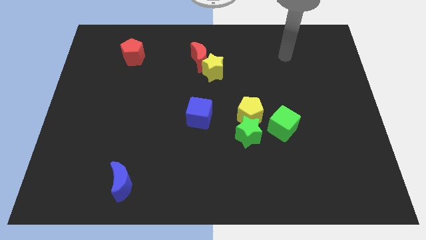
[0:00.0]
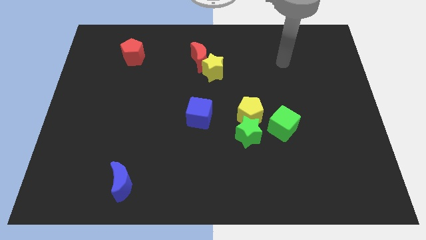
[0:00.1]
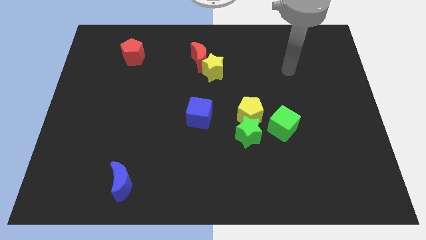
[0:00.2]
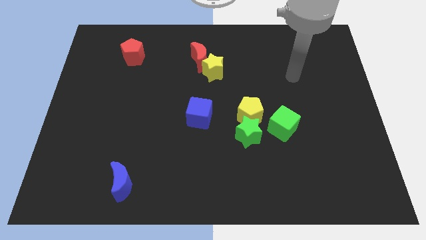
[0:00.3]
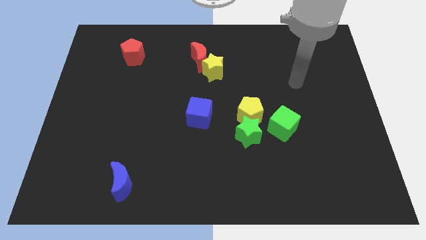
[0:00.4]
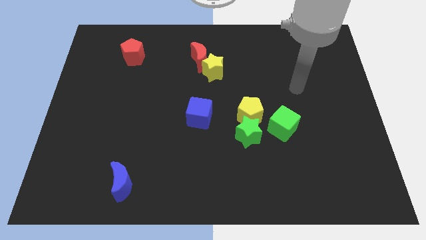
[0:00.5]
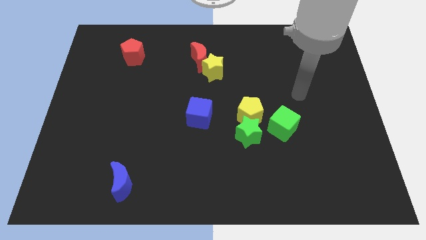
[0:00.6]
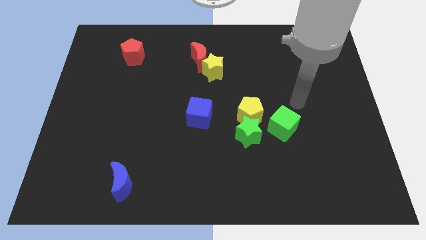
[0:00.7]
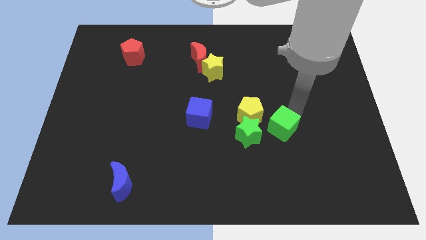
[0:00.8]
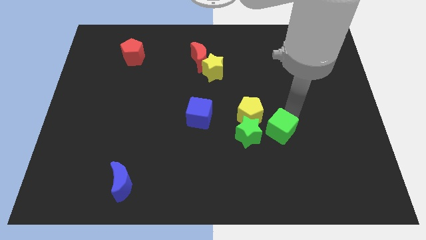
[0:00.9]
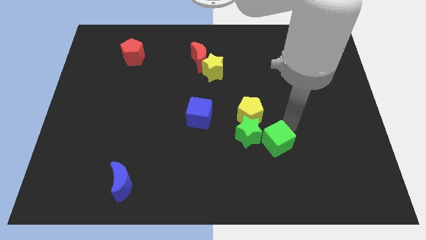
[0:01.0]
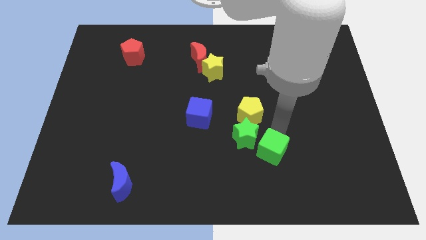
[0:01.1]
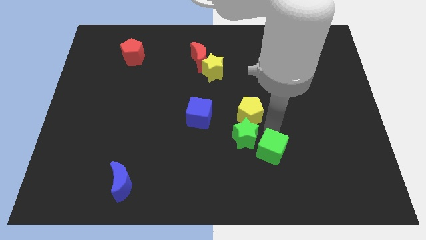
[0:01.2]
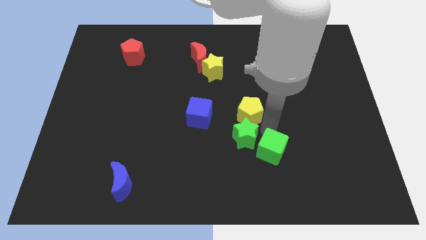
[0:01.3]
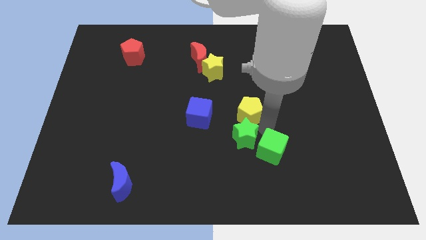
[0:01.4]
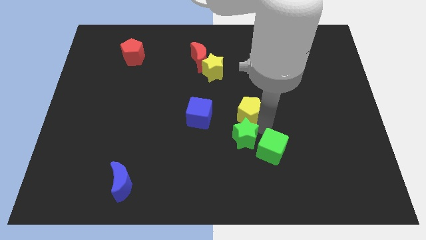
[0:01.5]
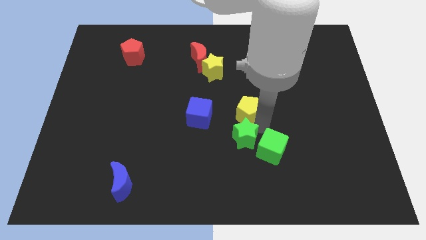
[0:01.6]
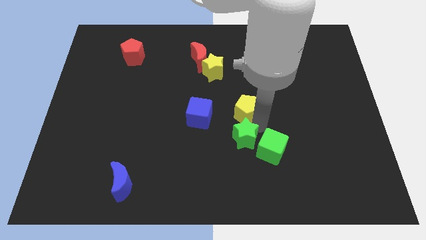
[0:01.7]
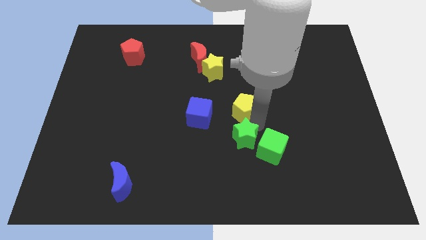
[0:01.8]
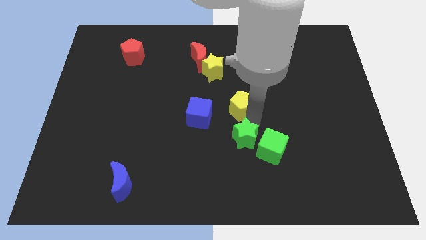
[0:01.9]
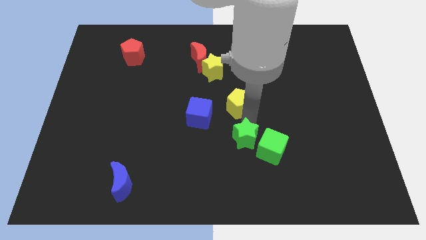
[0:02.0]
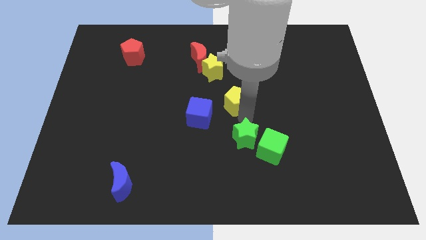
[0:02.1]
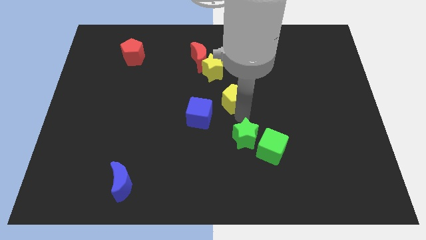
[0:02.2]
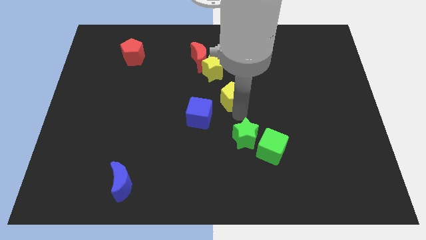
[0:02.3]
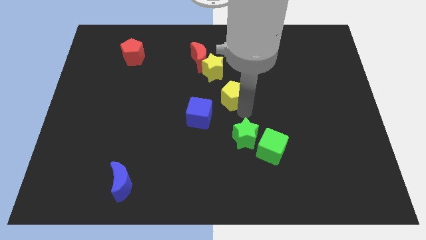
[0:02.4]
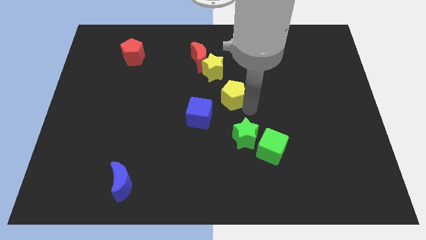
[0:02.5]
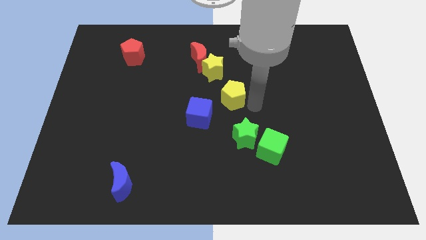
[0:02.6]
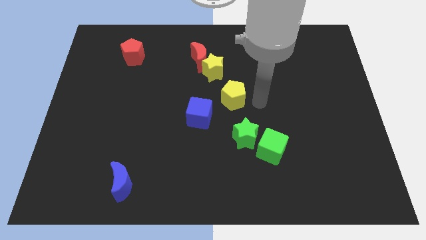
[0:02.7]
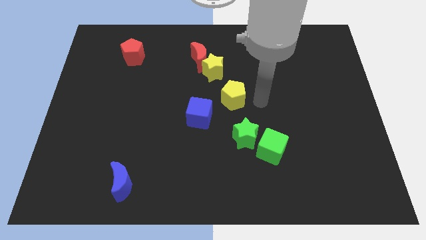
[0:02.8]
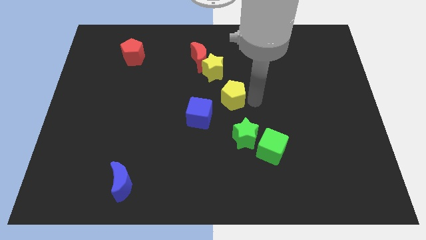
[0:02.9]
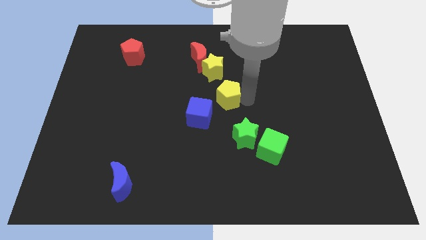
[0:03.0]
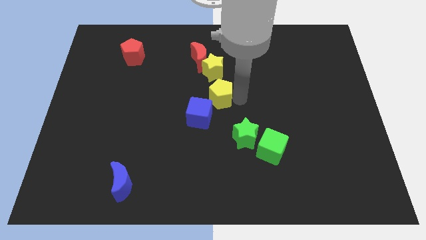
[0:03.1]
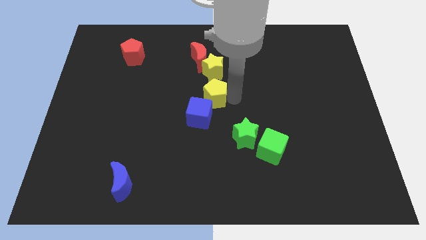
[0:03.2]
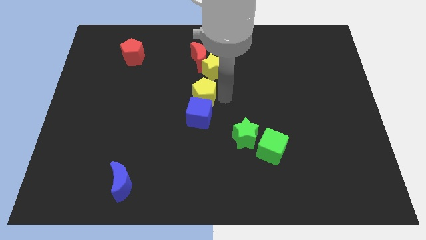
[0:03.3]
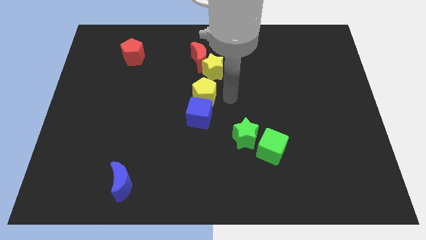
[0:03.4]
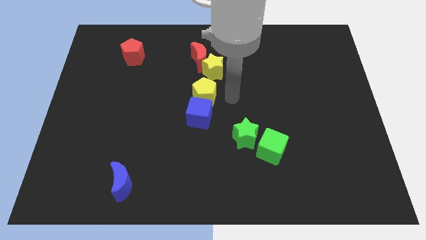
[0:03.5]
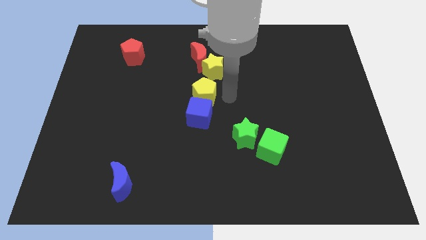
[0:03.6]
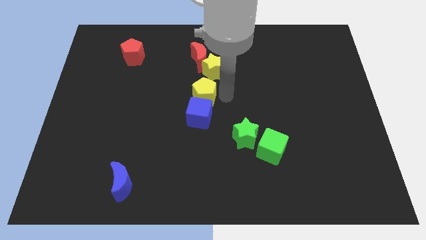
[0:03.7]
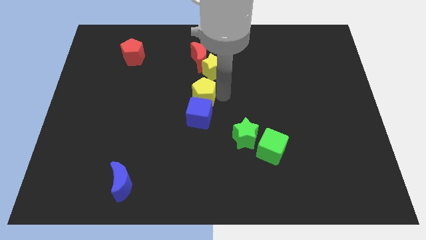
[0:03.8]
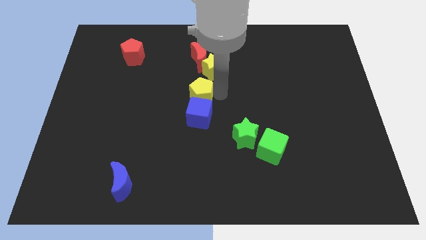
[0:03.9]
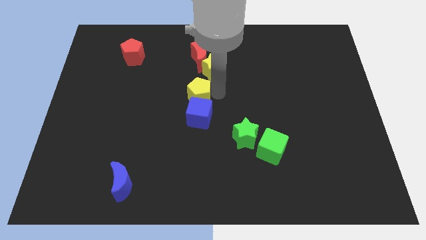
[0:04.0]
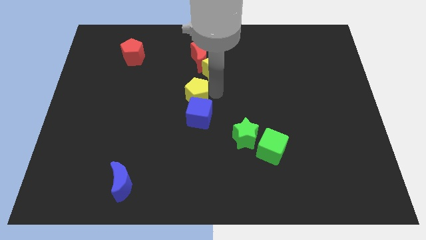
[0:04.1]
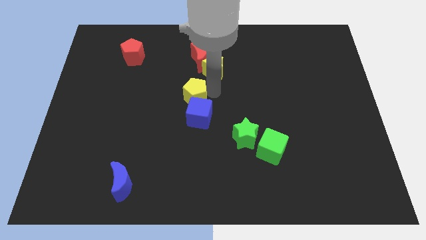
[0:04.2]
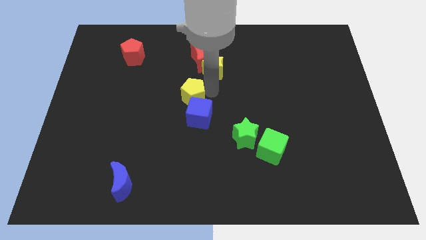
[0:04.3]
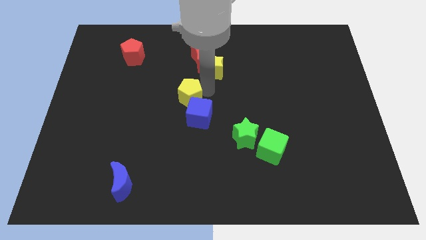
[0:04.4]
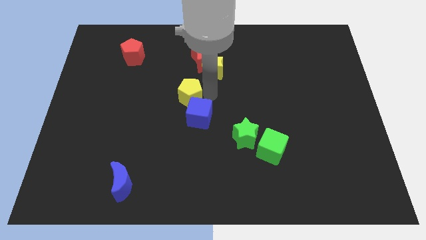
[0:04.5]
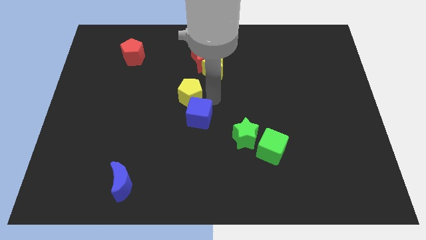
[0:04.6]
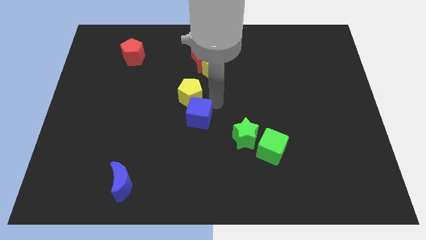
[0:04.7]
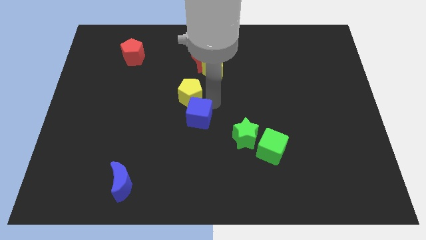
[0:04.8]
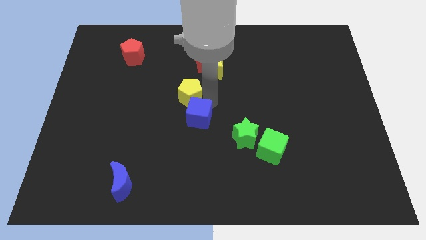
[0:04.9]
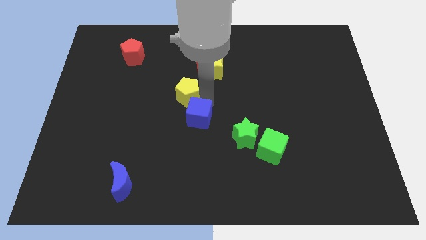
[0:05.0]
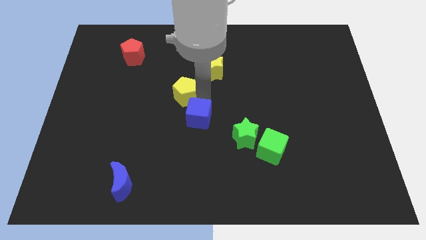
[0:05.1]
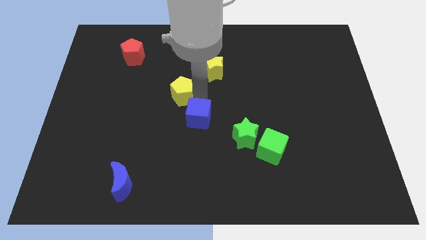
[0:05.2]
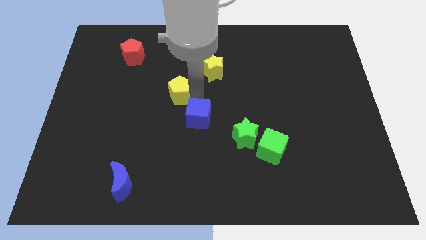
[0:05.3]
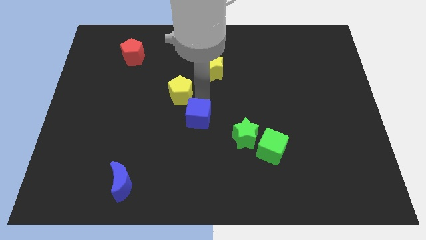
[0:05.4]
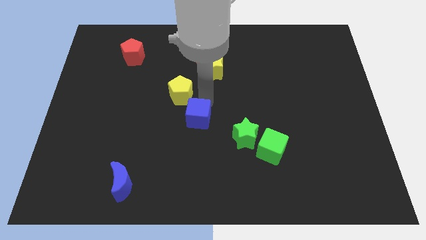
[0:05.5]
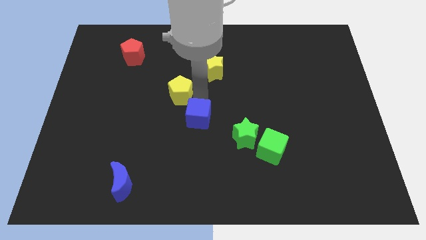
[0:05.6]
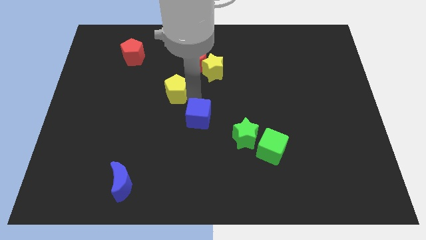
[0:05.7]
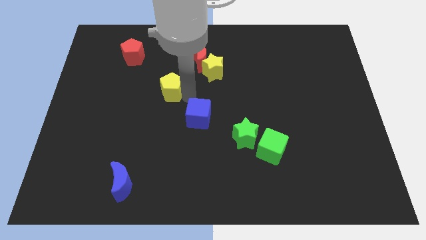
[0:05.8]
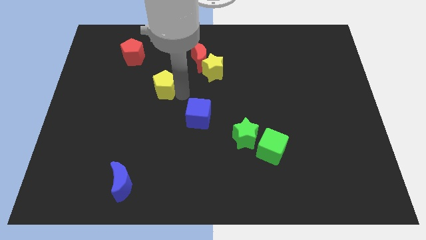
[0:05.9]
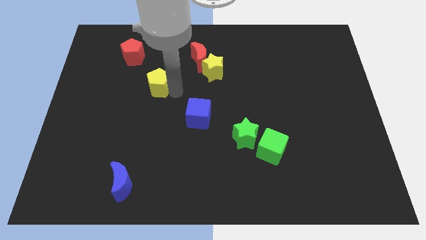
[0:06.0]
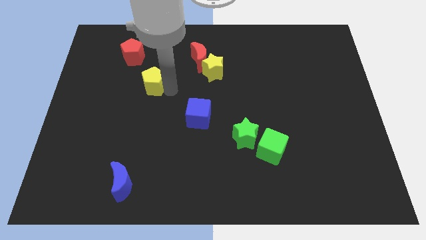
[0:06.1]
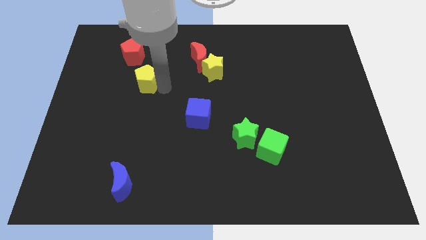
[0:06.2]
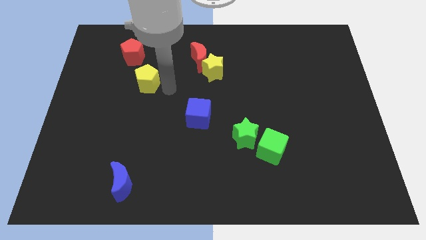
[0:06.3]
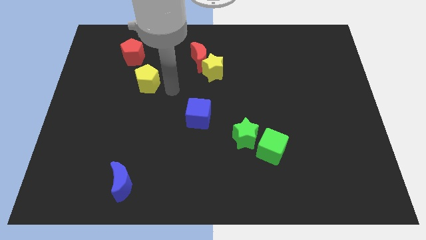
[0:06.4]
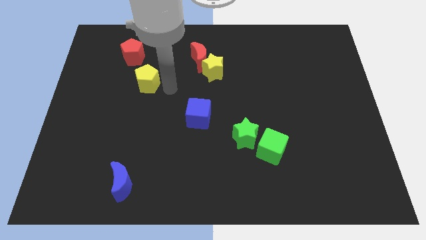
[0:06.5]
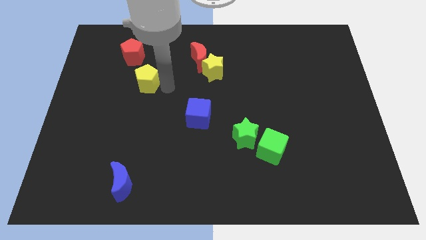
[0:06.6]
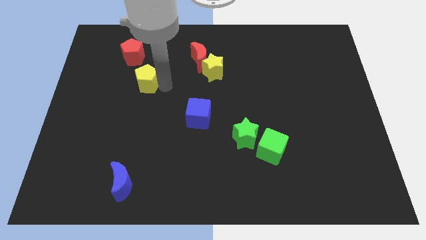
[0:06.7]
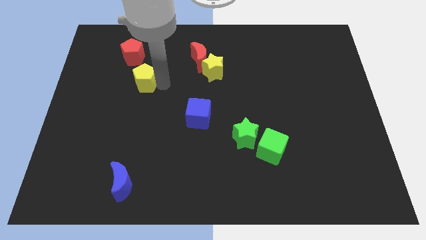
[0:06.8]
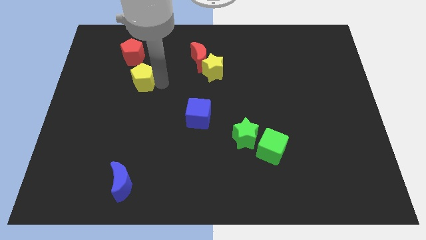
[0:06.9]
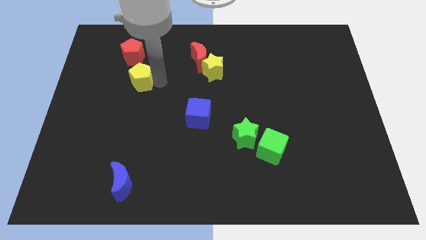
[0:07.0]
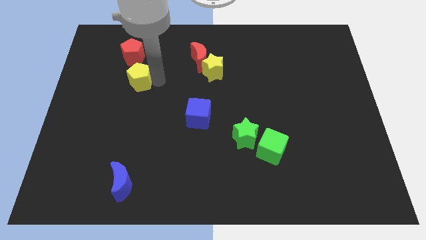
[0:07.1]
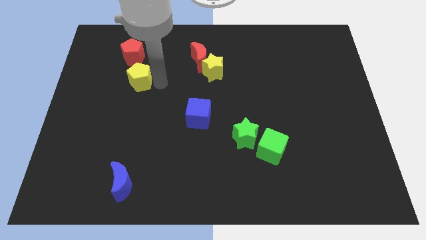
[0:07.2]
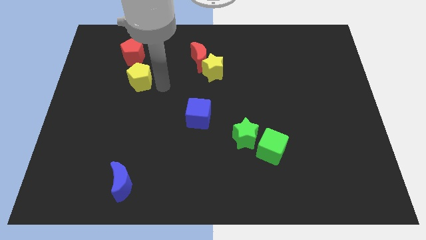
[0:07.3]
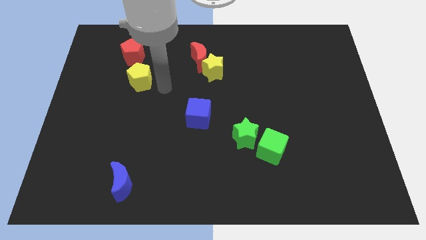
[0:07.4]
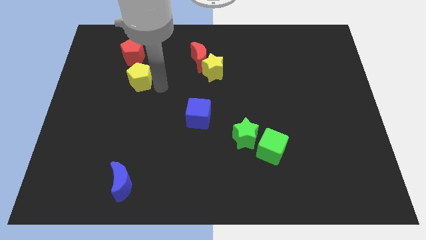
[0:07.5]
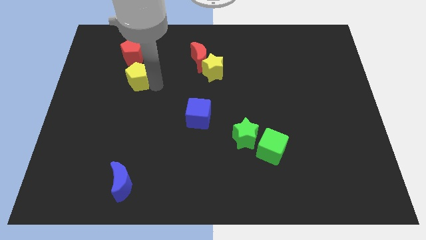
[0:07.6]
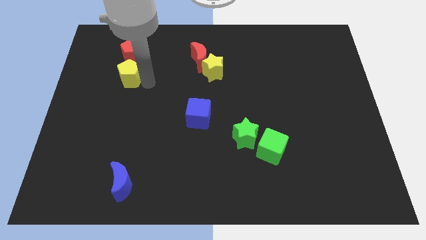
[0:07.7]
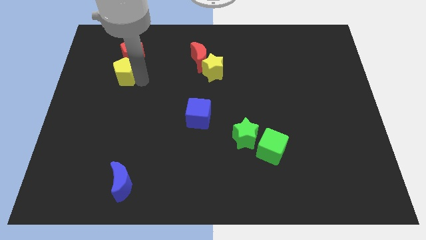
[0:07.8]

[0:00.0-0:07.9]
move the yellow pentagon diagonally down and to the left of the red pentagon
